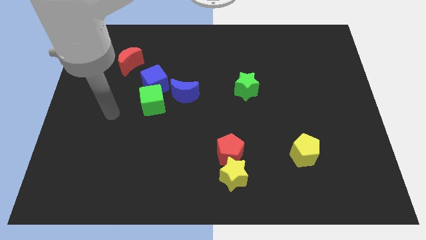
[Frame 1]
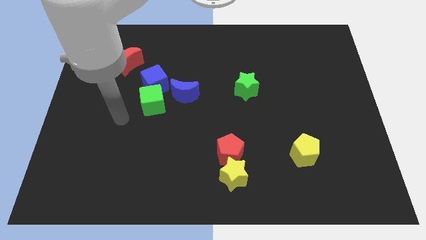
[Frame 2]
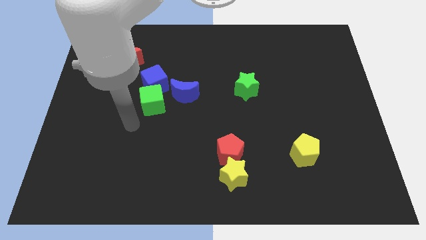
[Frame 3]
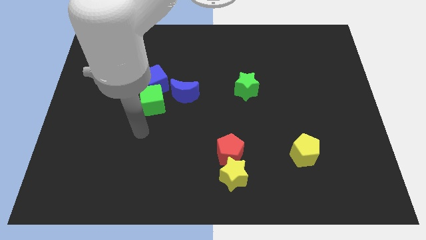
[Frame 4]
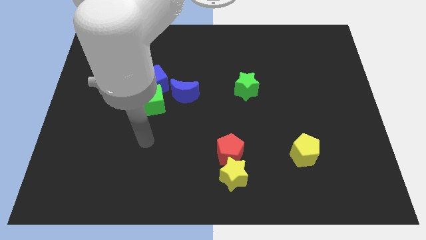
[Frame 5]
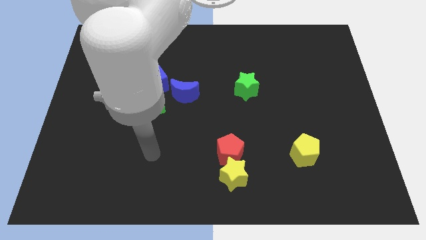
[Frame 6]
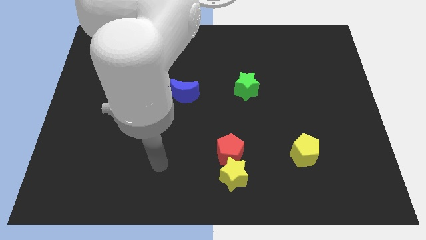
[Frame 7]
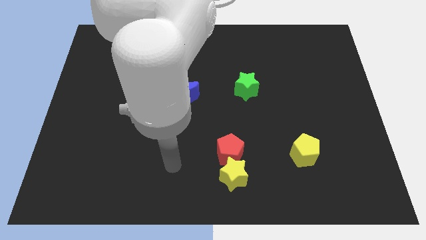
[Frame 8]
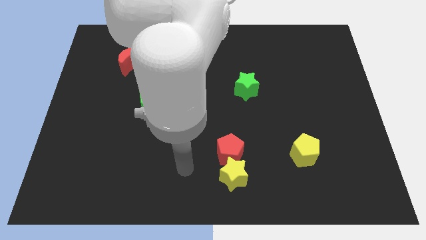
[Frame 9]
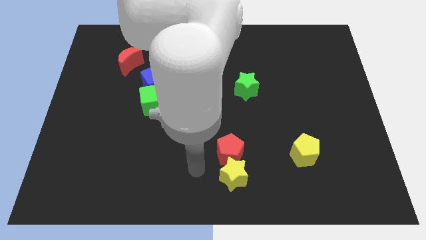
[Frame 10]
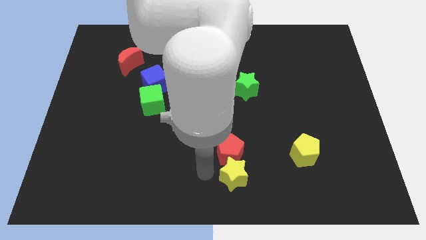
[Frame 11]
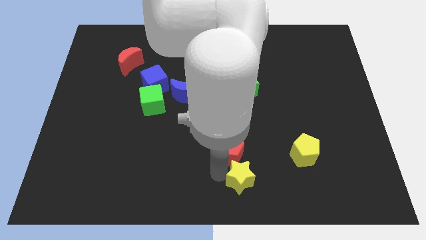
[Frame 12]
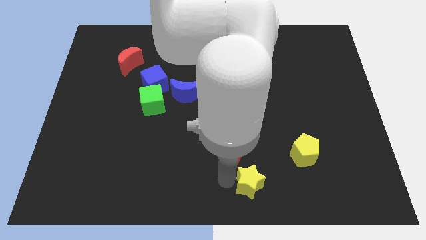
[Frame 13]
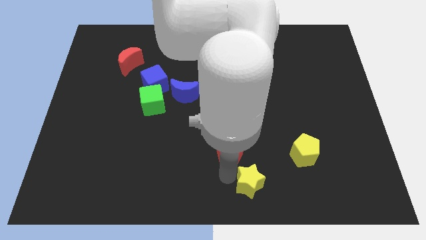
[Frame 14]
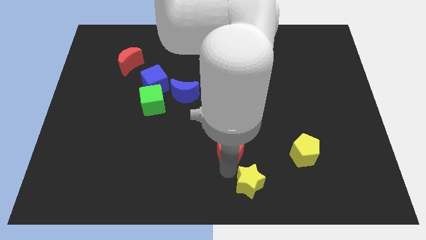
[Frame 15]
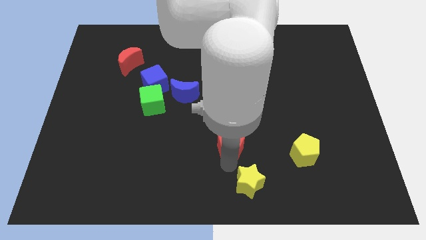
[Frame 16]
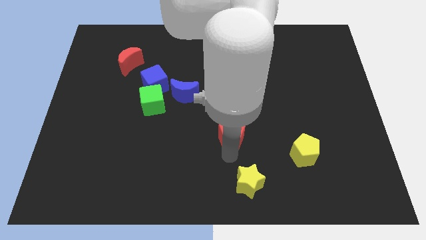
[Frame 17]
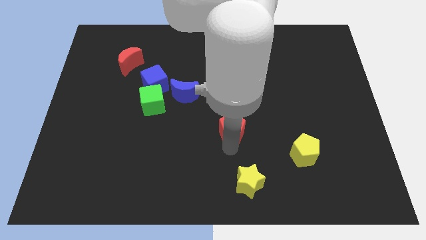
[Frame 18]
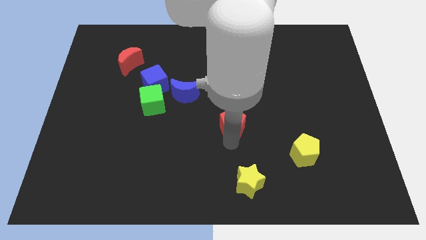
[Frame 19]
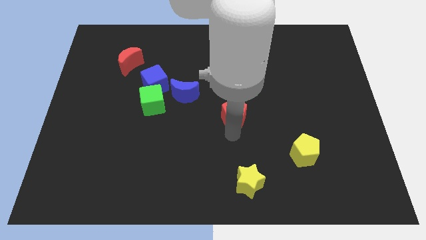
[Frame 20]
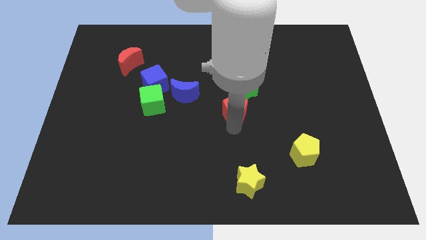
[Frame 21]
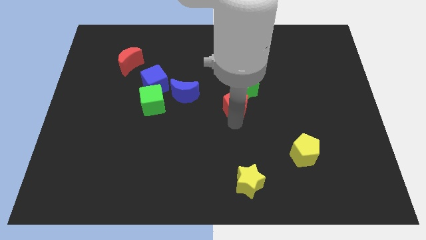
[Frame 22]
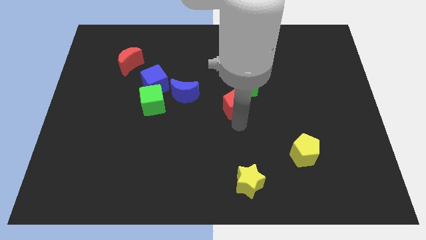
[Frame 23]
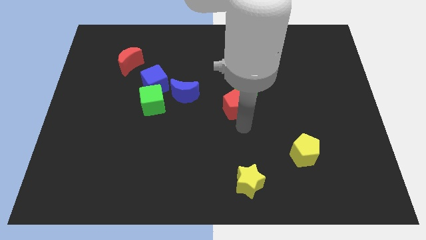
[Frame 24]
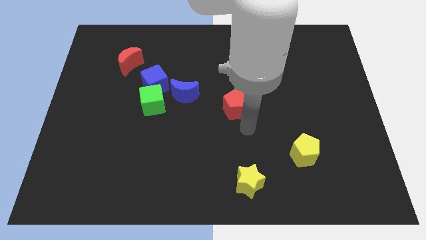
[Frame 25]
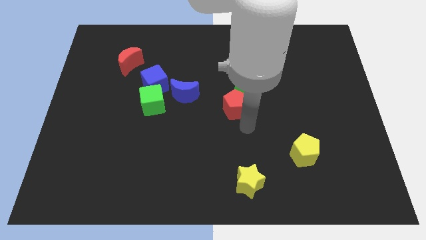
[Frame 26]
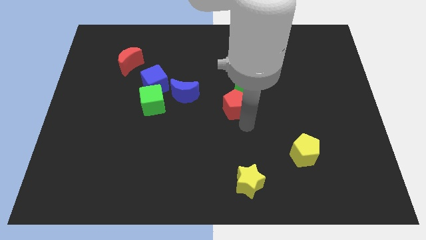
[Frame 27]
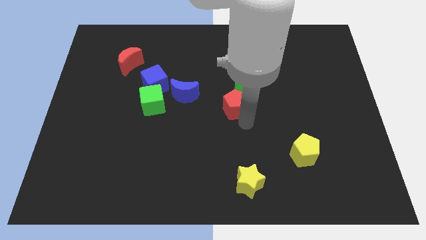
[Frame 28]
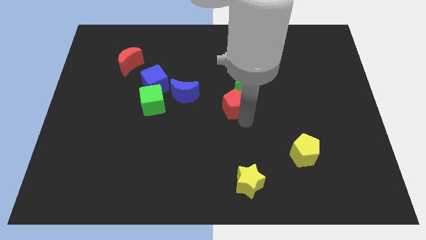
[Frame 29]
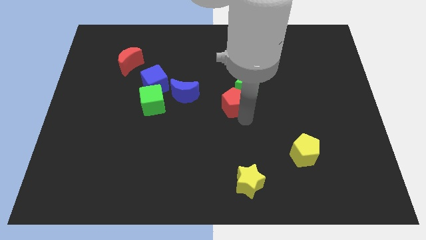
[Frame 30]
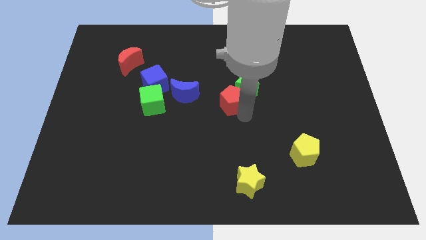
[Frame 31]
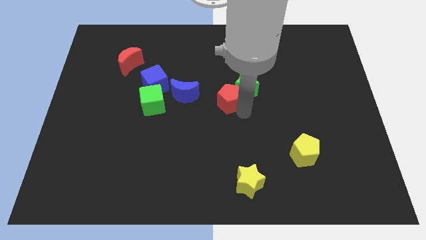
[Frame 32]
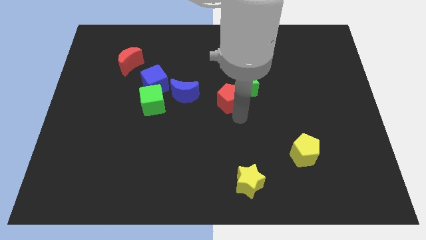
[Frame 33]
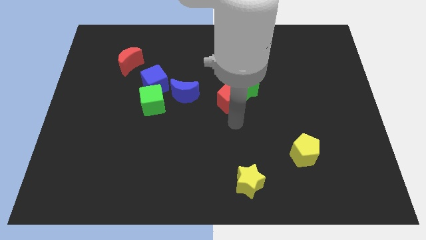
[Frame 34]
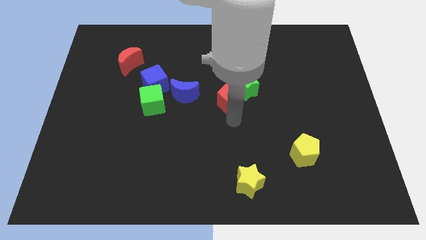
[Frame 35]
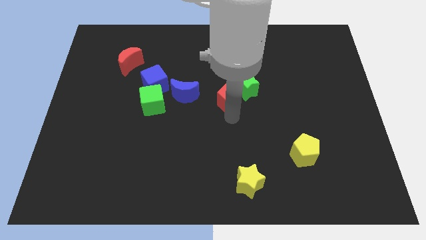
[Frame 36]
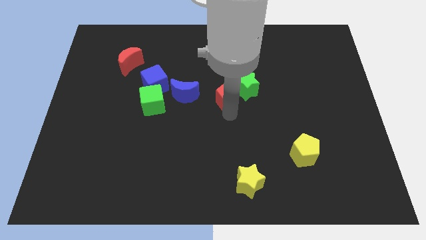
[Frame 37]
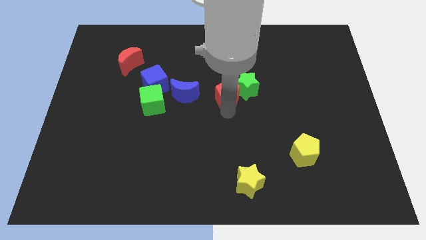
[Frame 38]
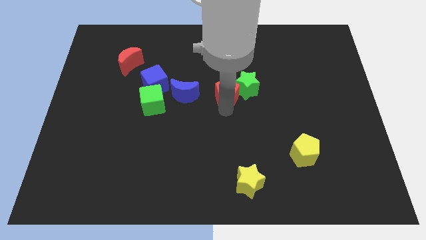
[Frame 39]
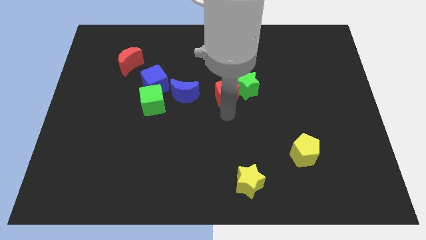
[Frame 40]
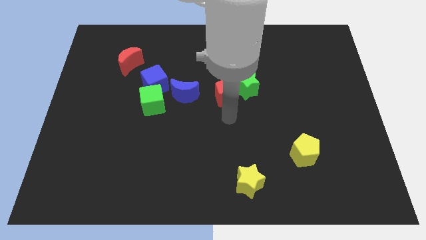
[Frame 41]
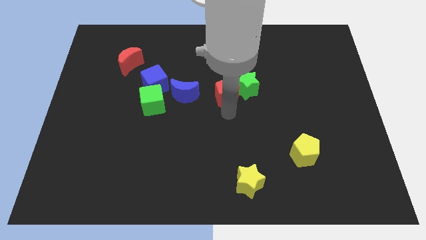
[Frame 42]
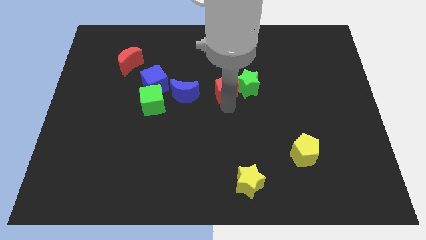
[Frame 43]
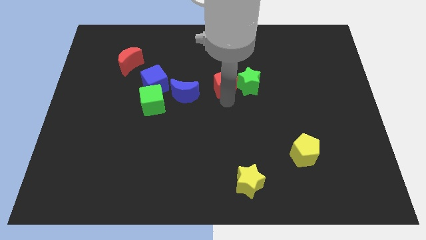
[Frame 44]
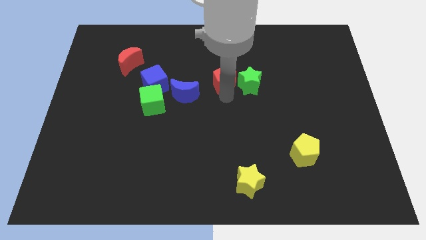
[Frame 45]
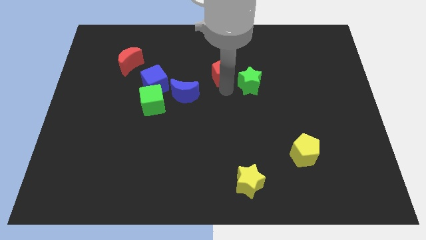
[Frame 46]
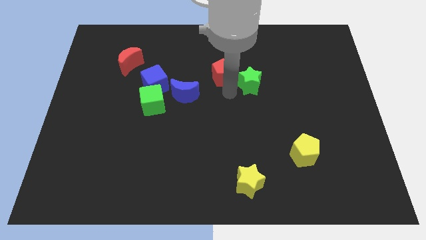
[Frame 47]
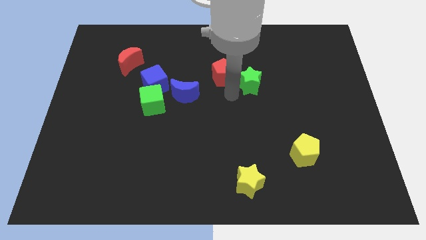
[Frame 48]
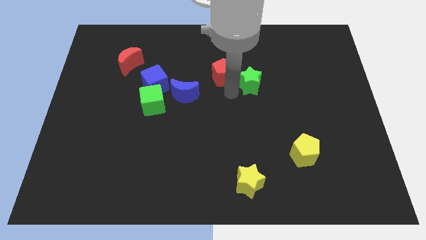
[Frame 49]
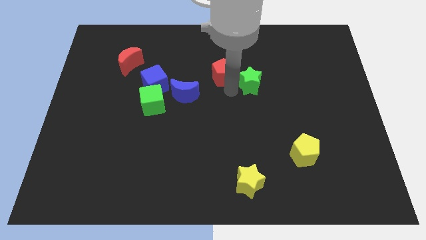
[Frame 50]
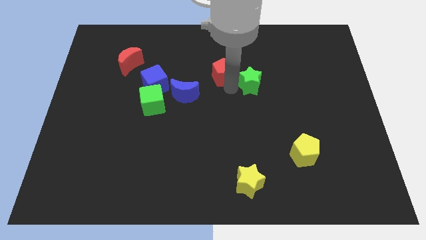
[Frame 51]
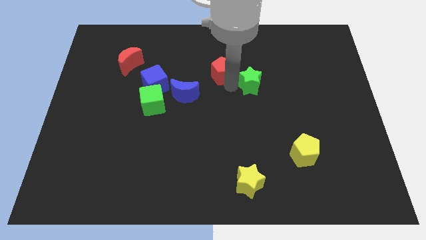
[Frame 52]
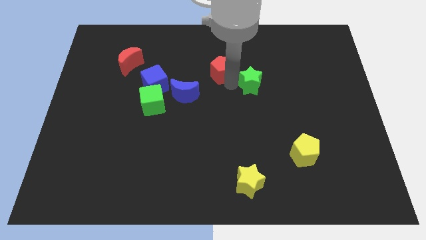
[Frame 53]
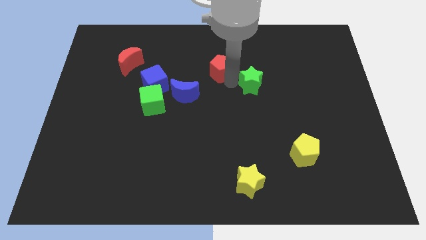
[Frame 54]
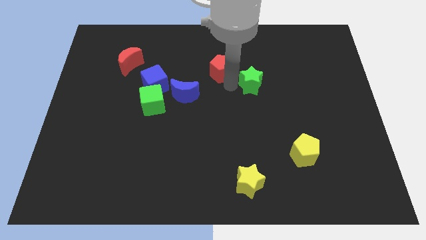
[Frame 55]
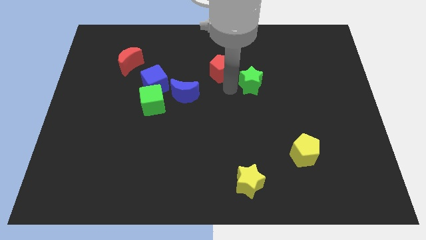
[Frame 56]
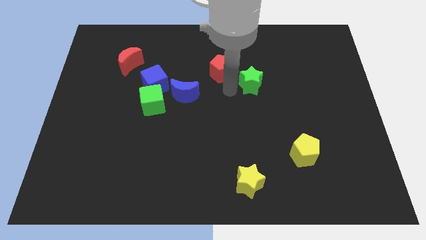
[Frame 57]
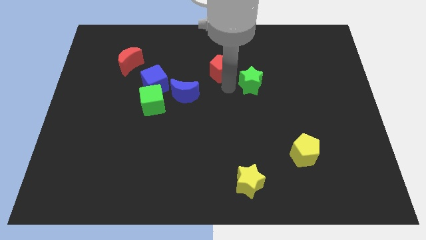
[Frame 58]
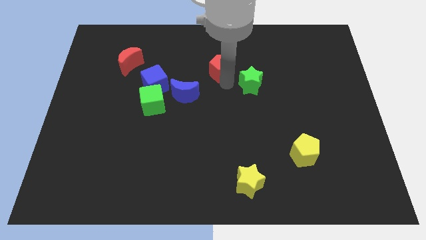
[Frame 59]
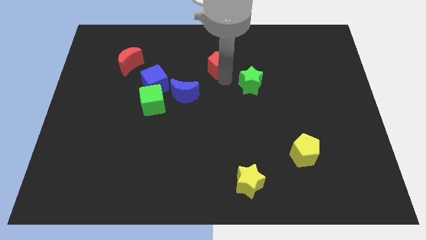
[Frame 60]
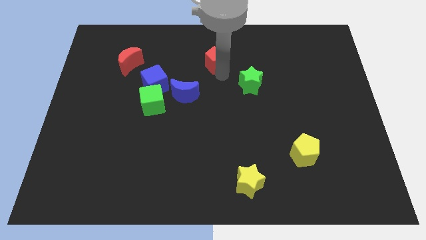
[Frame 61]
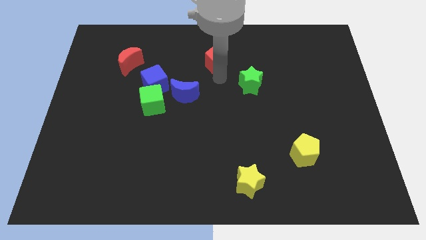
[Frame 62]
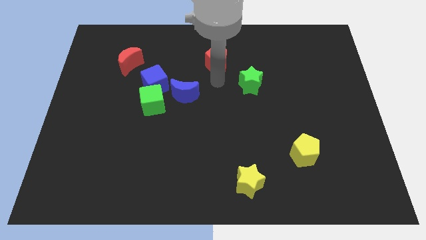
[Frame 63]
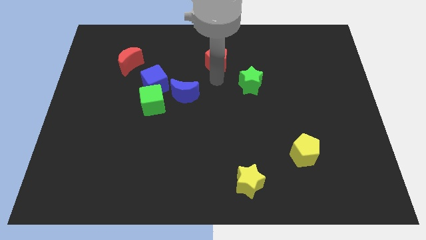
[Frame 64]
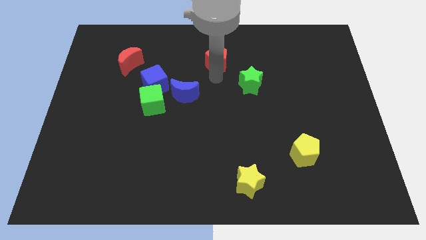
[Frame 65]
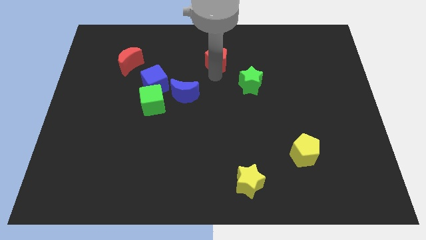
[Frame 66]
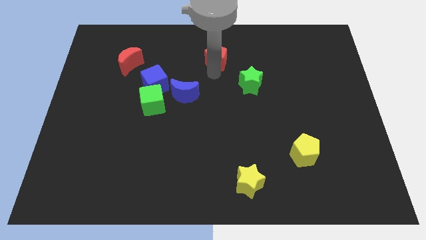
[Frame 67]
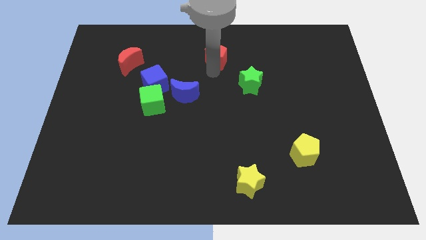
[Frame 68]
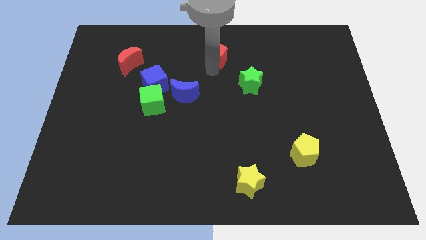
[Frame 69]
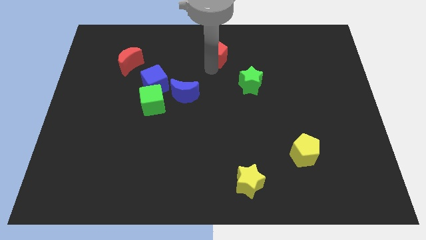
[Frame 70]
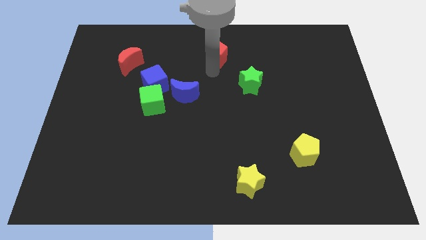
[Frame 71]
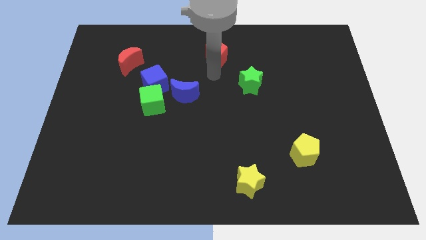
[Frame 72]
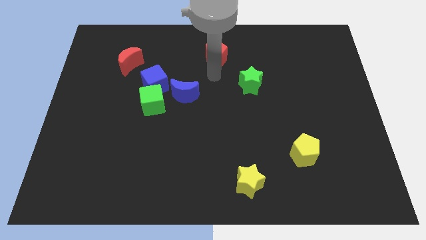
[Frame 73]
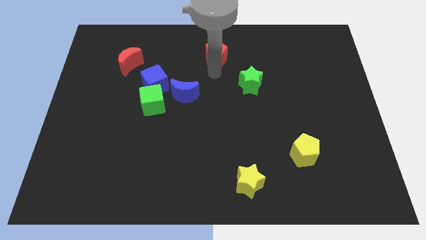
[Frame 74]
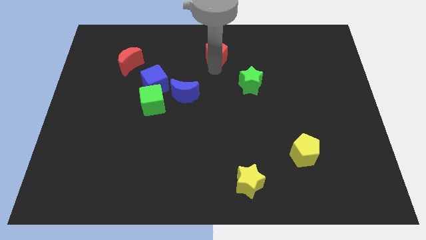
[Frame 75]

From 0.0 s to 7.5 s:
slide the red pentagon to the top
